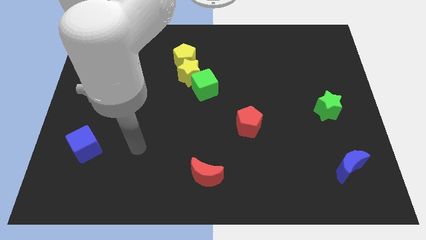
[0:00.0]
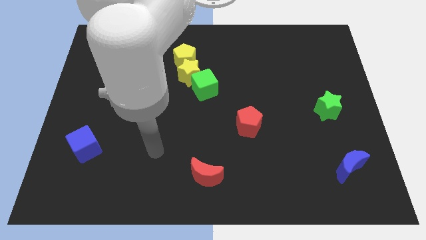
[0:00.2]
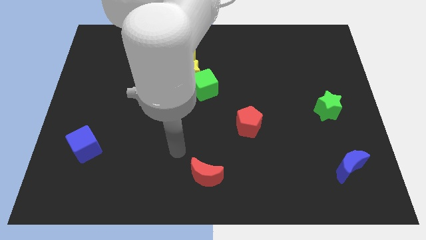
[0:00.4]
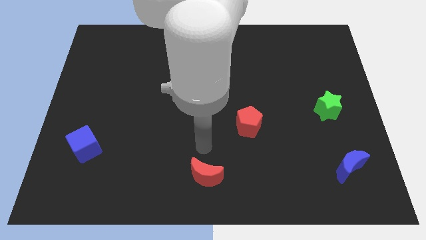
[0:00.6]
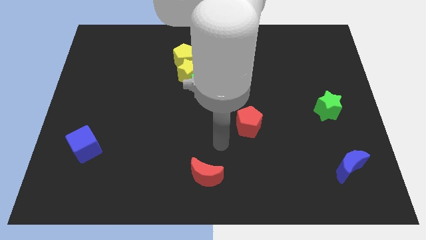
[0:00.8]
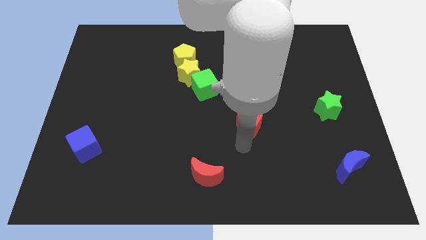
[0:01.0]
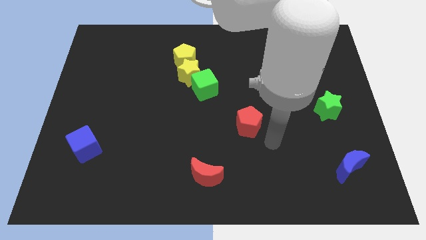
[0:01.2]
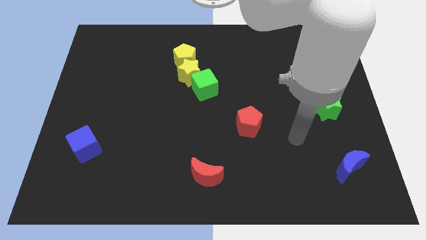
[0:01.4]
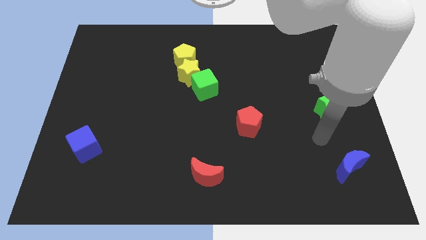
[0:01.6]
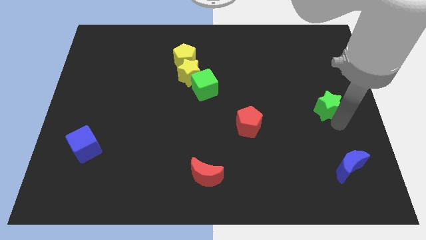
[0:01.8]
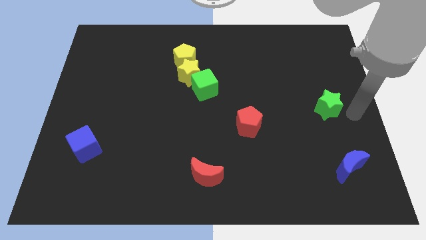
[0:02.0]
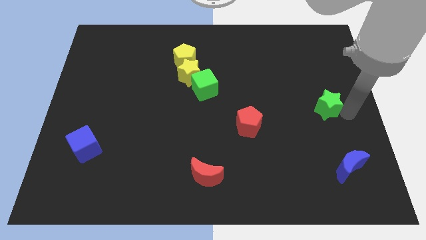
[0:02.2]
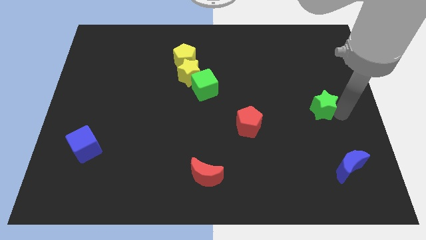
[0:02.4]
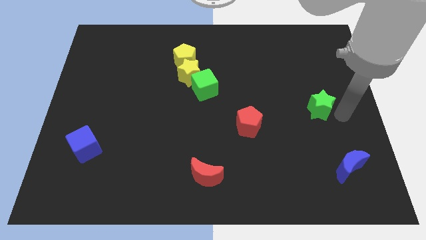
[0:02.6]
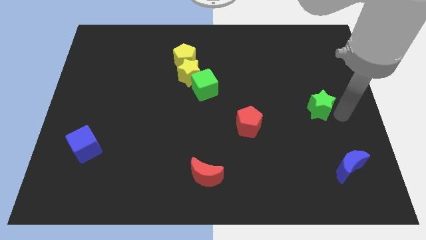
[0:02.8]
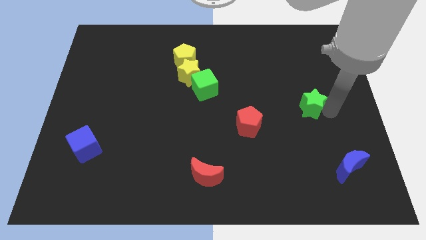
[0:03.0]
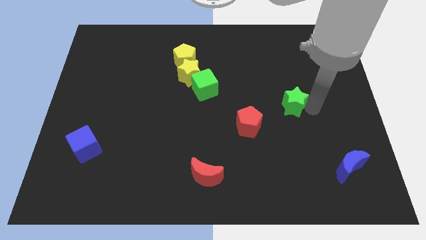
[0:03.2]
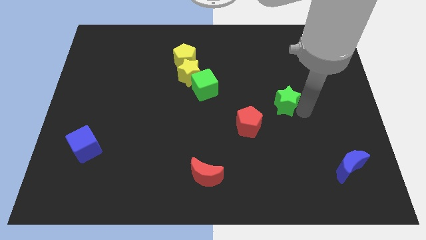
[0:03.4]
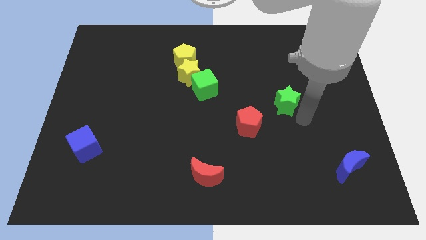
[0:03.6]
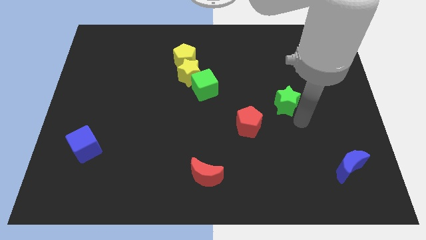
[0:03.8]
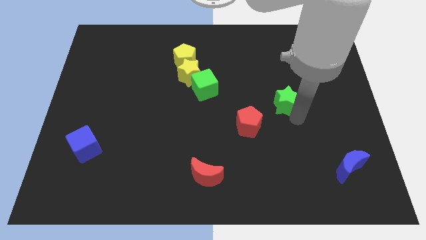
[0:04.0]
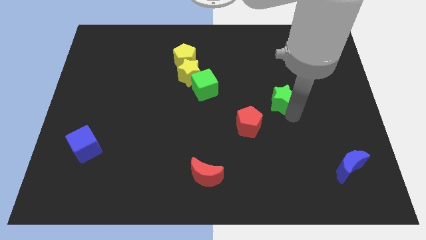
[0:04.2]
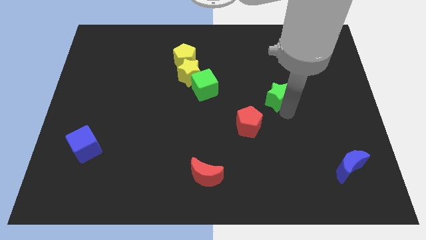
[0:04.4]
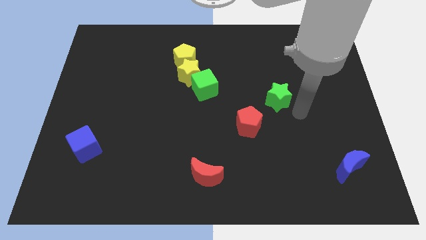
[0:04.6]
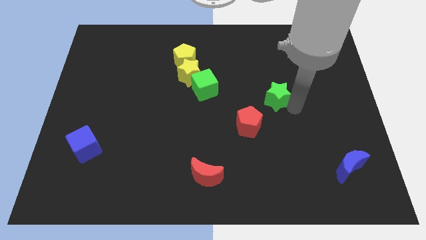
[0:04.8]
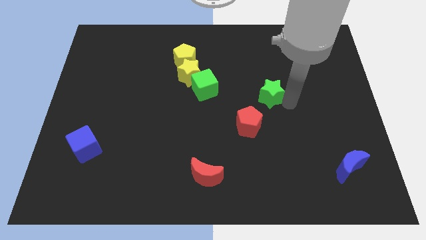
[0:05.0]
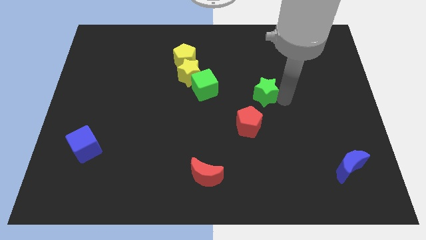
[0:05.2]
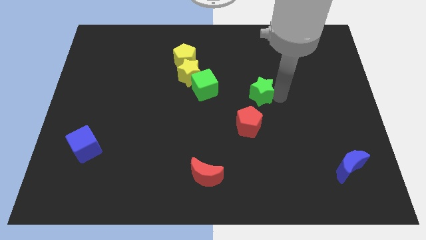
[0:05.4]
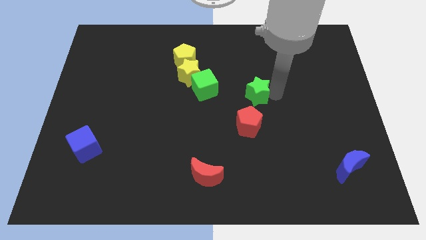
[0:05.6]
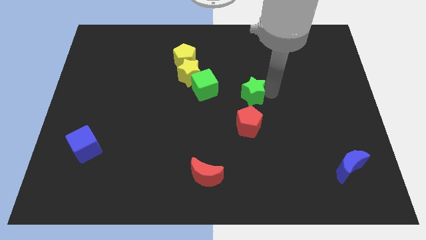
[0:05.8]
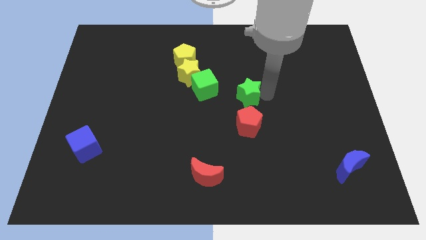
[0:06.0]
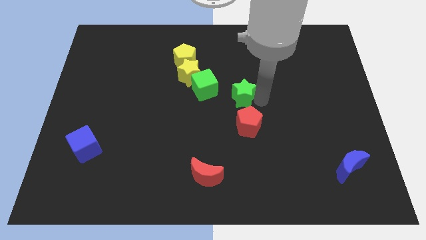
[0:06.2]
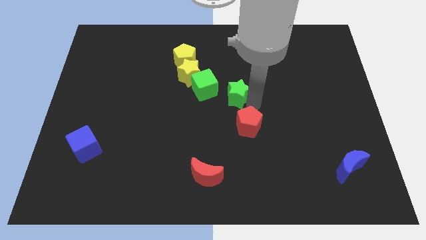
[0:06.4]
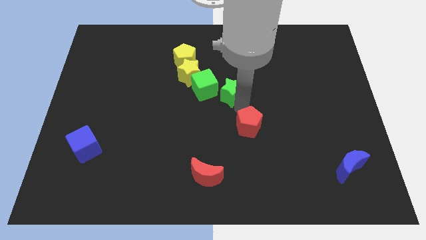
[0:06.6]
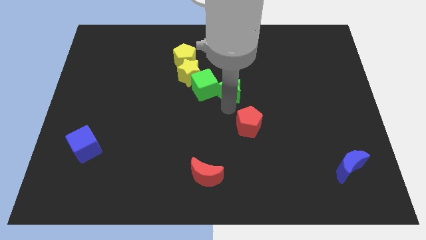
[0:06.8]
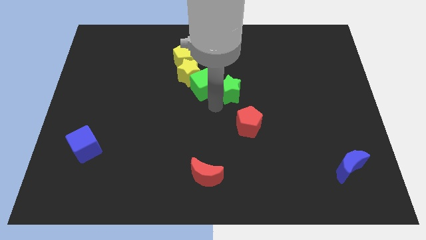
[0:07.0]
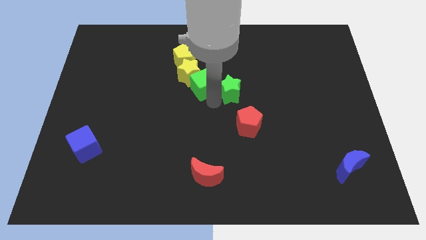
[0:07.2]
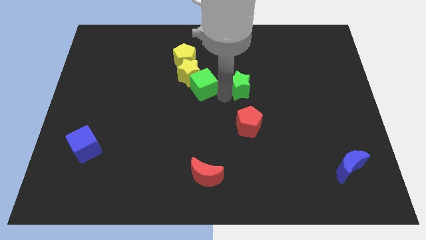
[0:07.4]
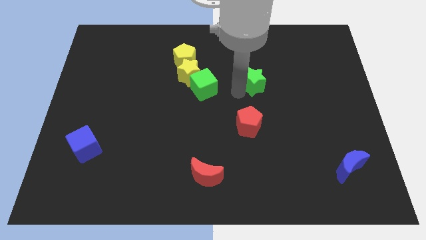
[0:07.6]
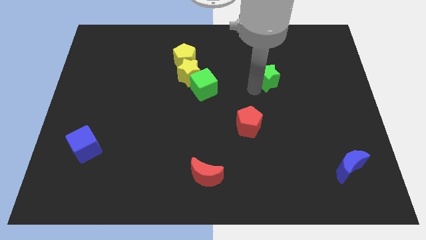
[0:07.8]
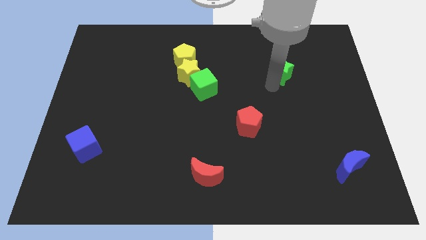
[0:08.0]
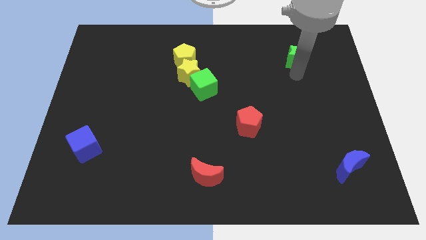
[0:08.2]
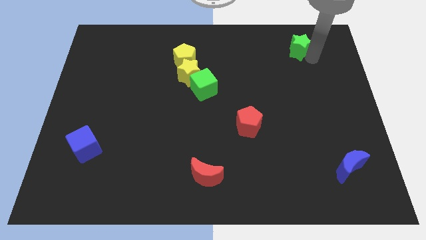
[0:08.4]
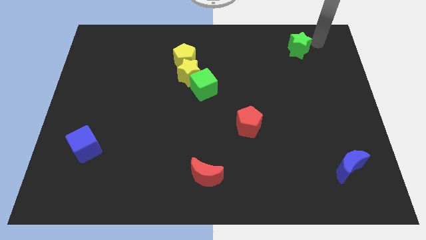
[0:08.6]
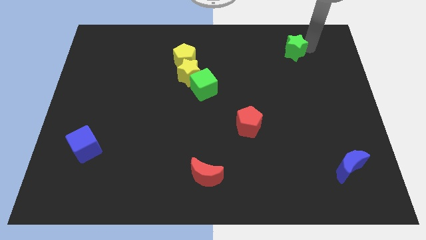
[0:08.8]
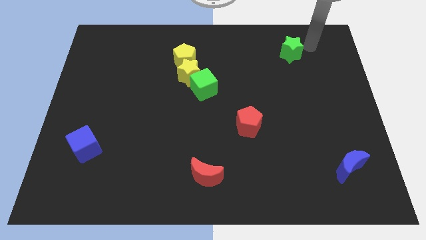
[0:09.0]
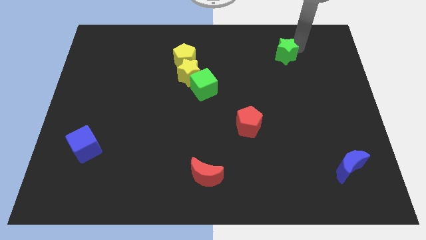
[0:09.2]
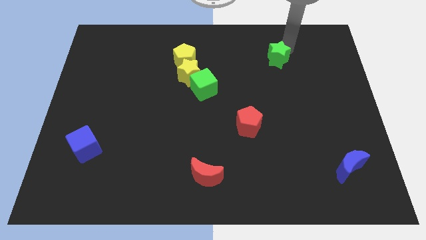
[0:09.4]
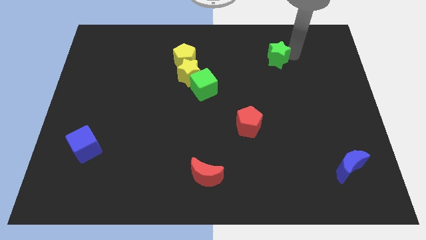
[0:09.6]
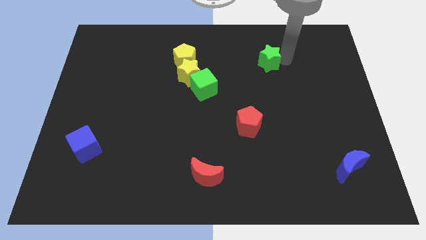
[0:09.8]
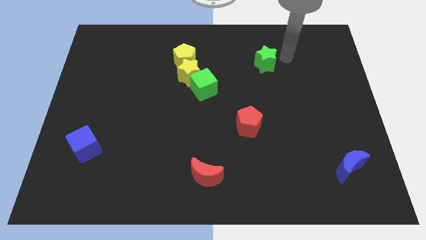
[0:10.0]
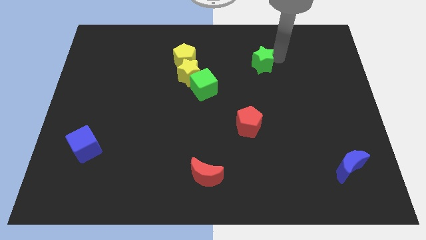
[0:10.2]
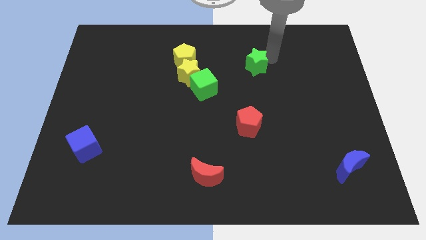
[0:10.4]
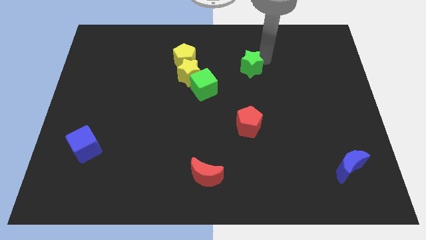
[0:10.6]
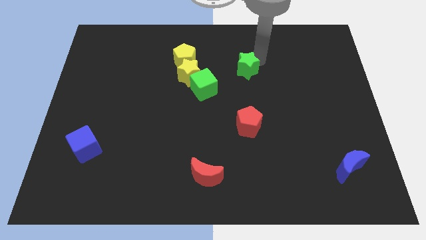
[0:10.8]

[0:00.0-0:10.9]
slide the green star diagonally up and to the right of the green cube

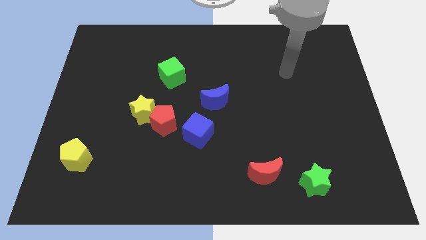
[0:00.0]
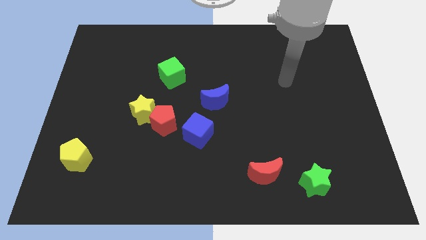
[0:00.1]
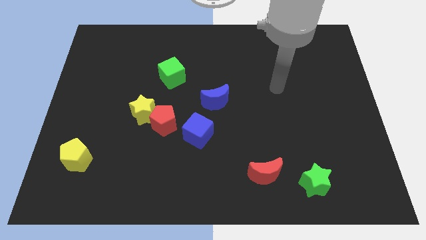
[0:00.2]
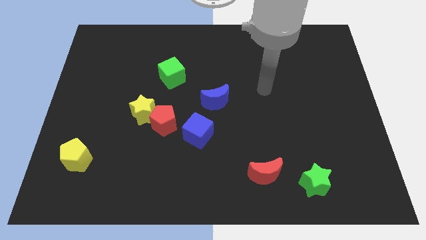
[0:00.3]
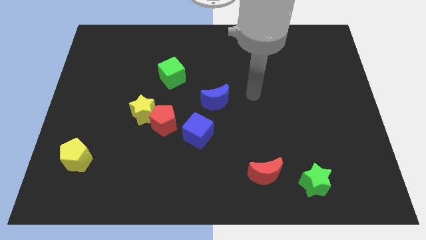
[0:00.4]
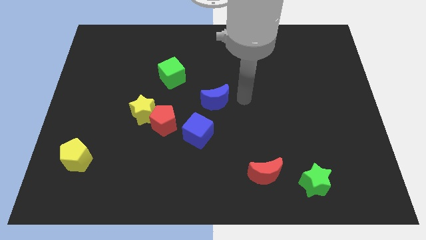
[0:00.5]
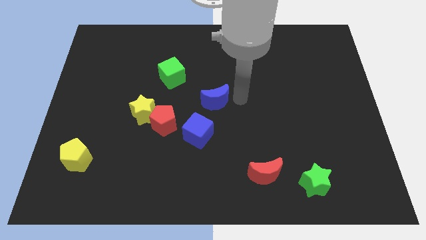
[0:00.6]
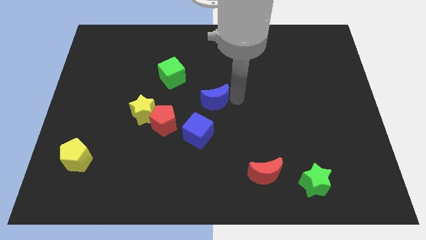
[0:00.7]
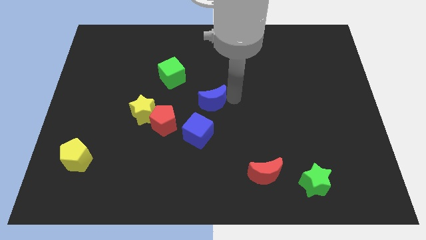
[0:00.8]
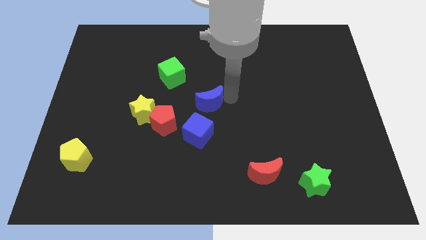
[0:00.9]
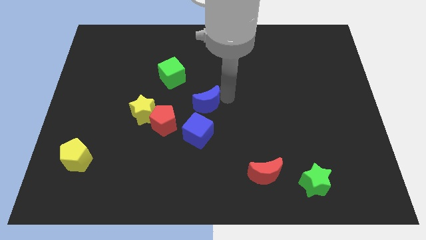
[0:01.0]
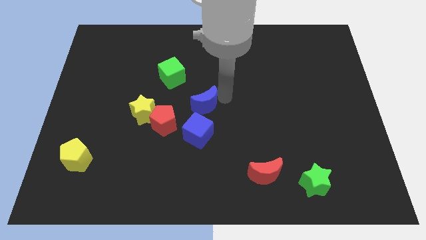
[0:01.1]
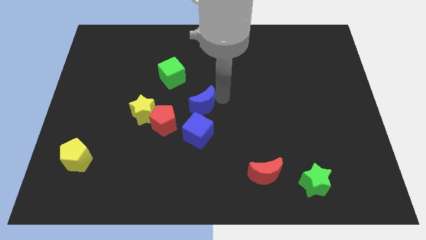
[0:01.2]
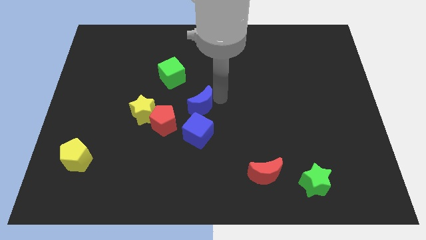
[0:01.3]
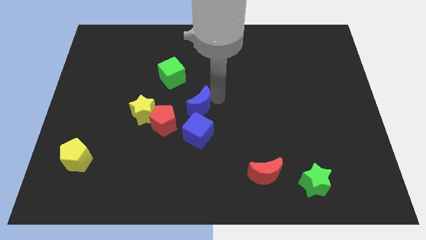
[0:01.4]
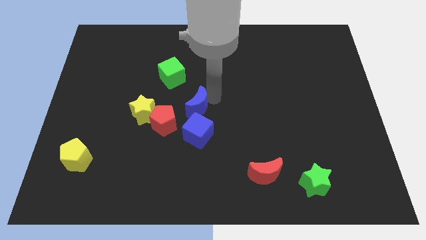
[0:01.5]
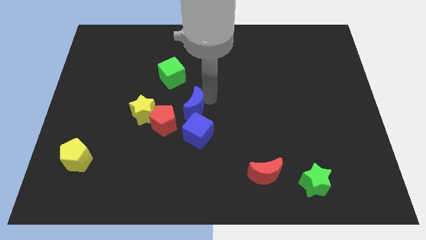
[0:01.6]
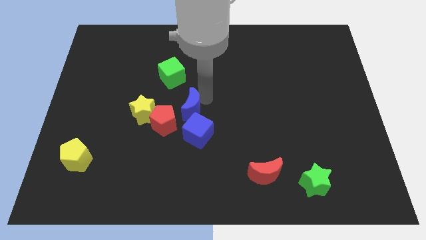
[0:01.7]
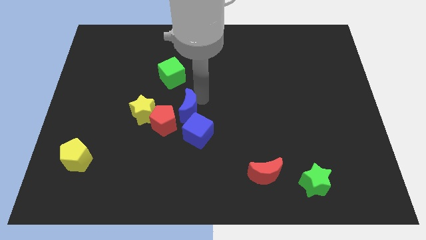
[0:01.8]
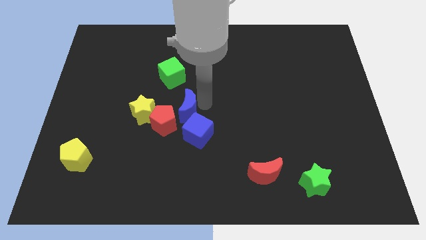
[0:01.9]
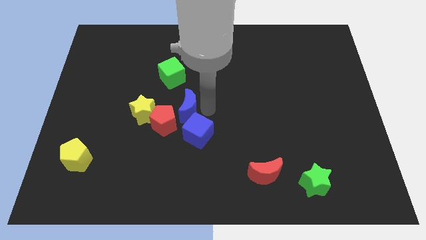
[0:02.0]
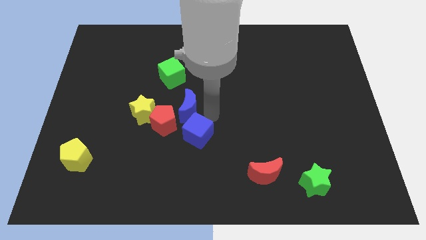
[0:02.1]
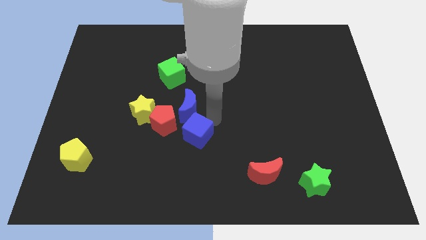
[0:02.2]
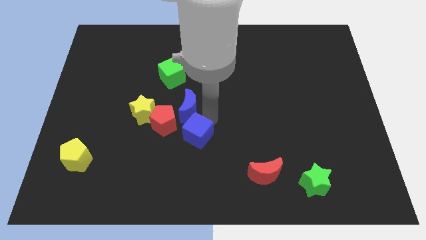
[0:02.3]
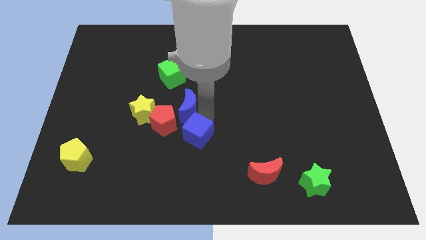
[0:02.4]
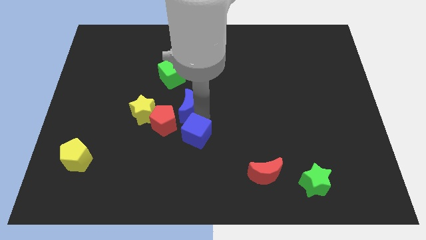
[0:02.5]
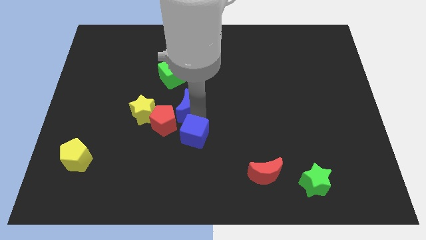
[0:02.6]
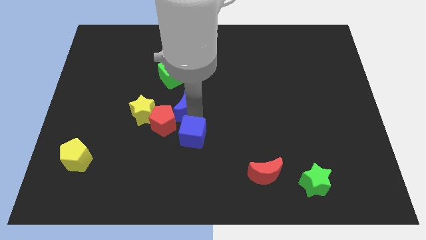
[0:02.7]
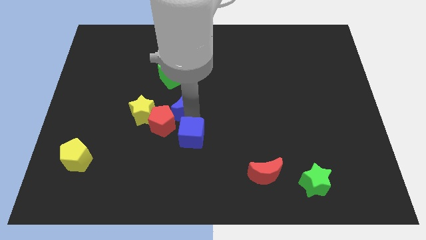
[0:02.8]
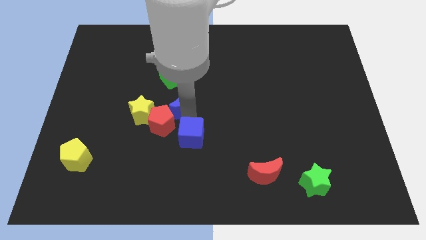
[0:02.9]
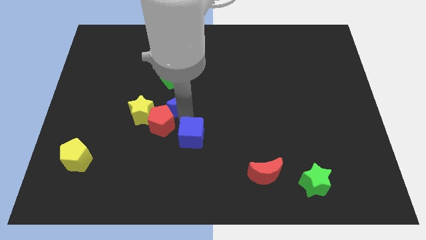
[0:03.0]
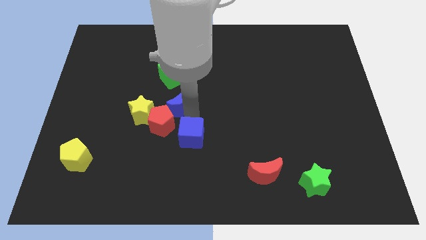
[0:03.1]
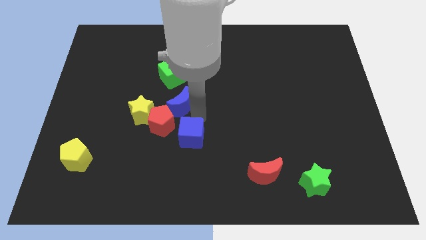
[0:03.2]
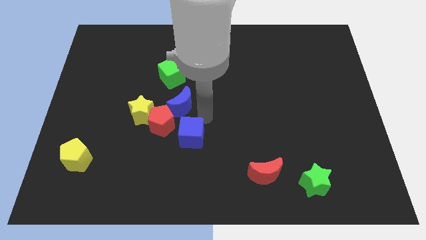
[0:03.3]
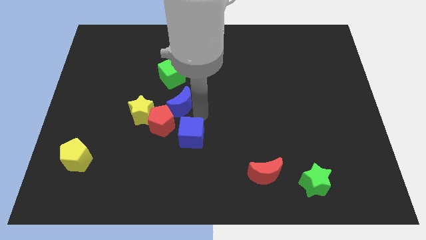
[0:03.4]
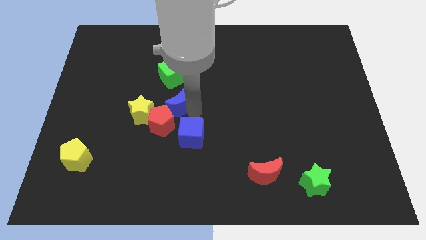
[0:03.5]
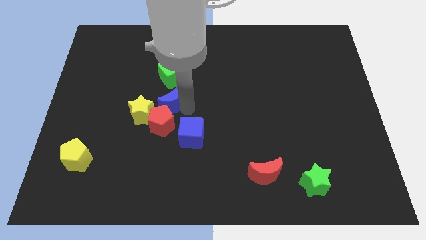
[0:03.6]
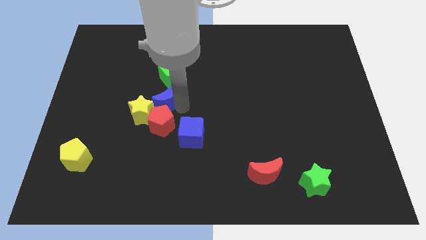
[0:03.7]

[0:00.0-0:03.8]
push the blue moon to the top left side of the red pentagon
